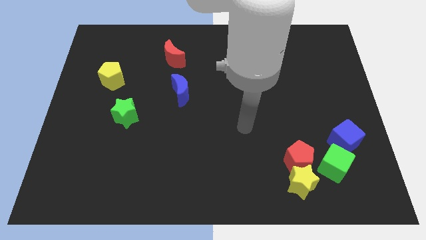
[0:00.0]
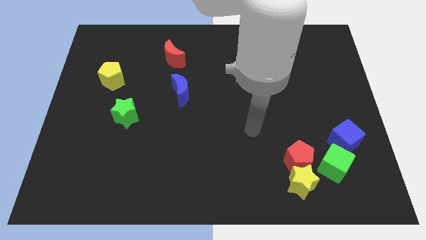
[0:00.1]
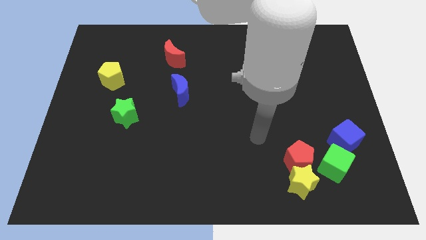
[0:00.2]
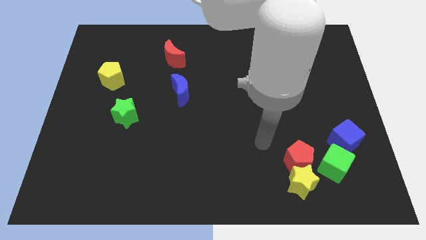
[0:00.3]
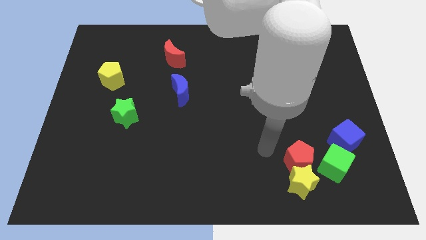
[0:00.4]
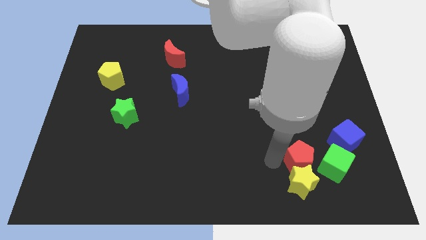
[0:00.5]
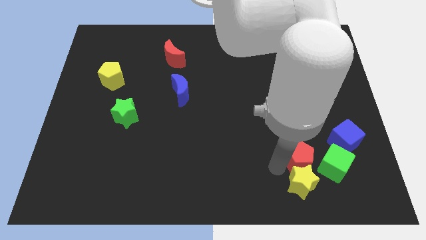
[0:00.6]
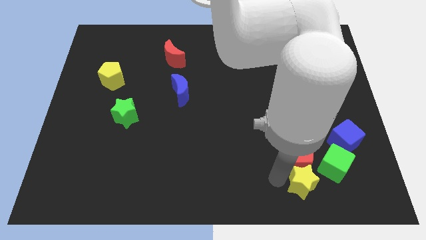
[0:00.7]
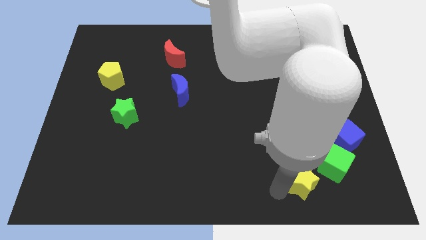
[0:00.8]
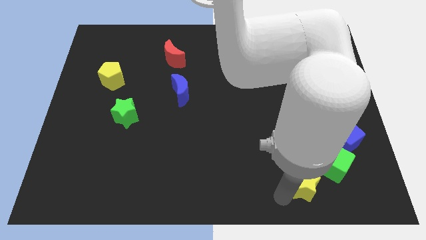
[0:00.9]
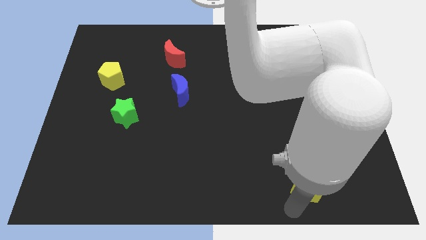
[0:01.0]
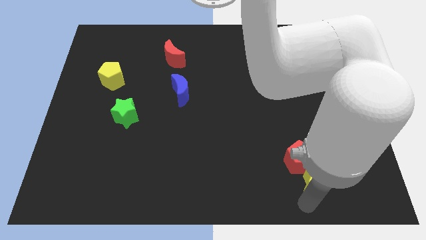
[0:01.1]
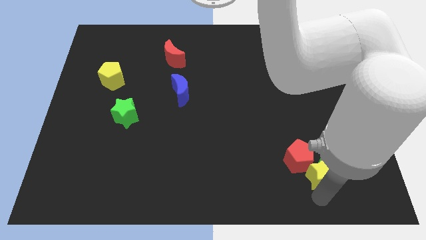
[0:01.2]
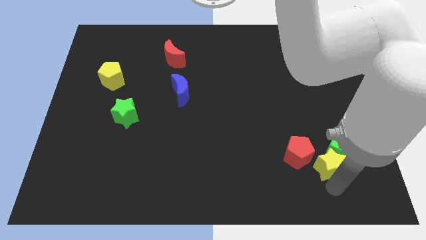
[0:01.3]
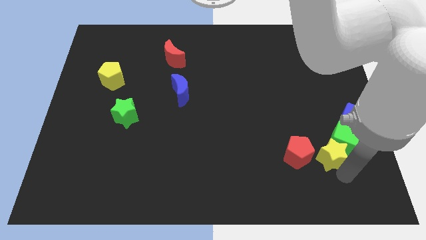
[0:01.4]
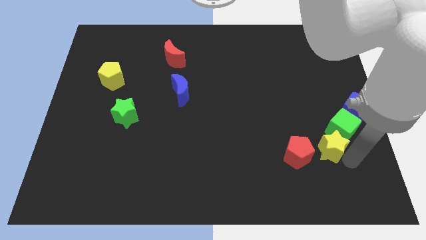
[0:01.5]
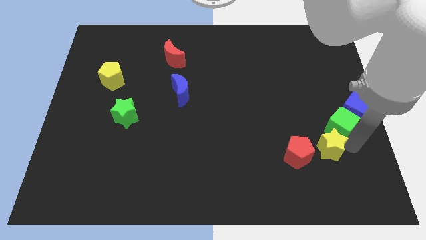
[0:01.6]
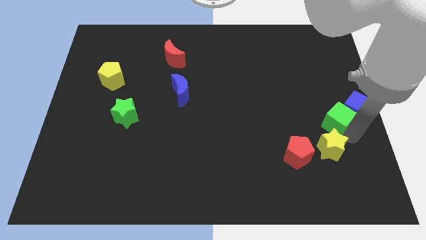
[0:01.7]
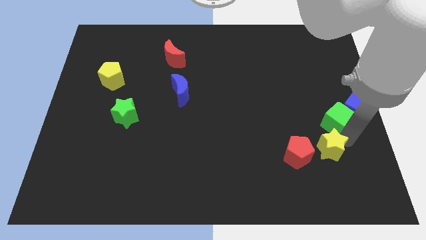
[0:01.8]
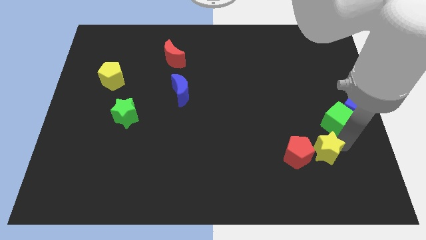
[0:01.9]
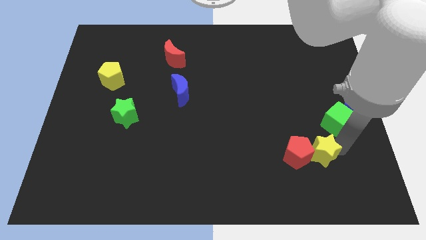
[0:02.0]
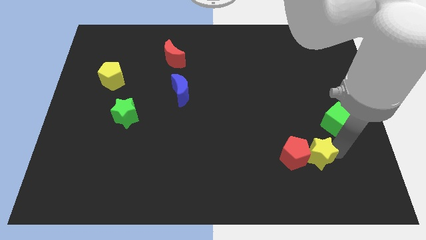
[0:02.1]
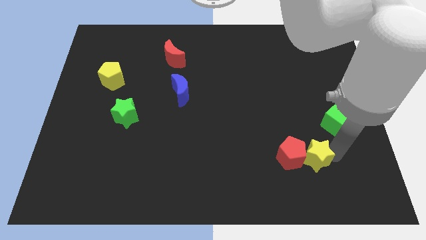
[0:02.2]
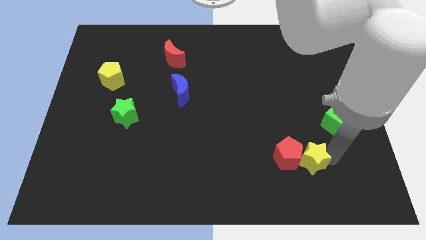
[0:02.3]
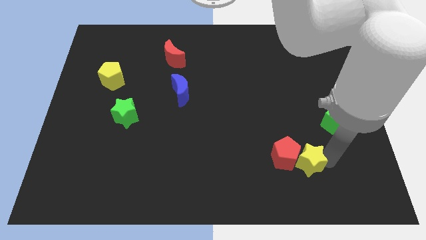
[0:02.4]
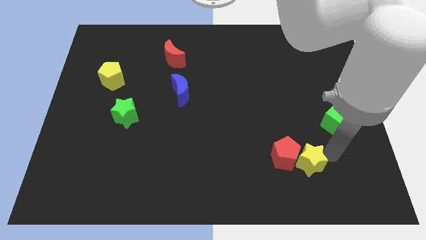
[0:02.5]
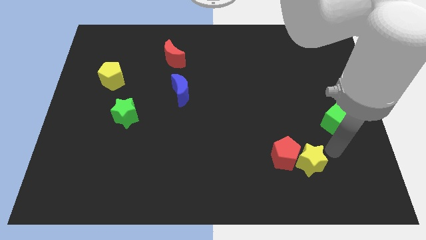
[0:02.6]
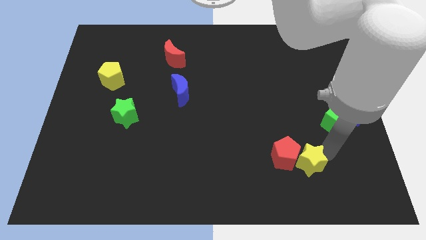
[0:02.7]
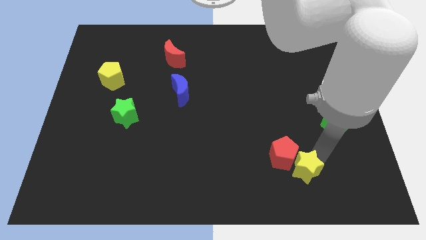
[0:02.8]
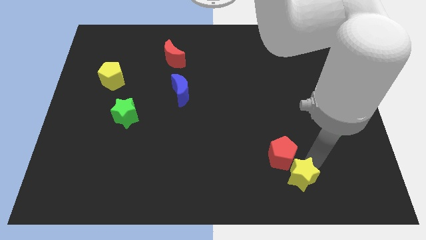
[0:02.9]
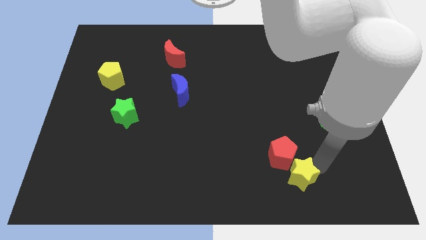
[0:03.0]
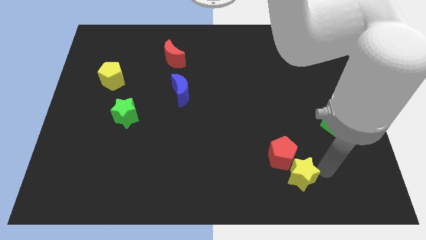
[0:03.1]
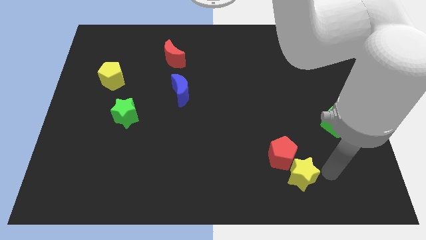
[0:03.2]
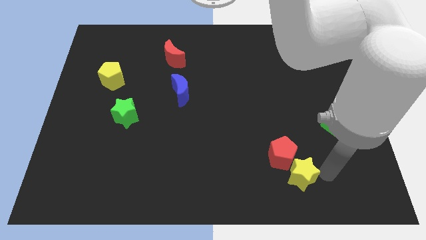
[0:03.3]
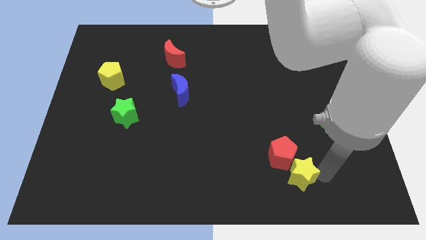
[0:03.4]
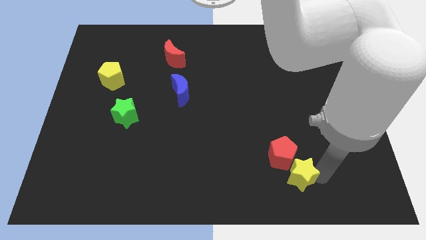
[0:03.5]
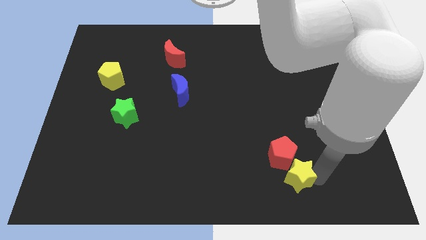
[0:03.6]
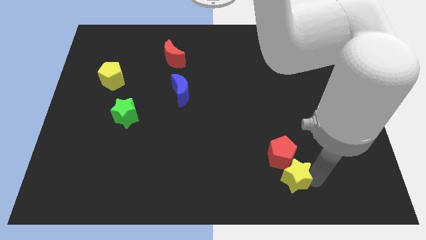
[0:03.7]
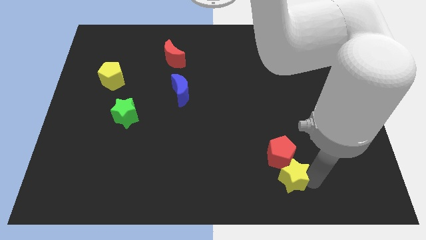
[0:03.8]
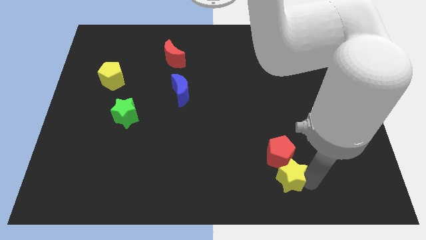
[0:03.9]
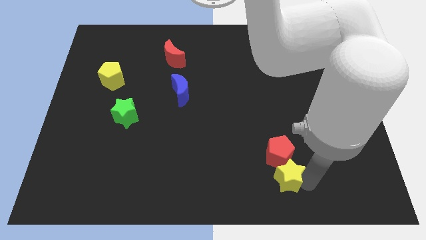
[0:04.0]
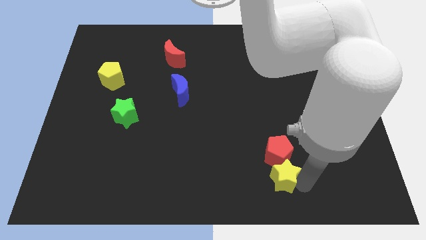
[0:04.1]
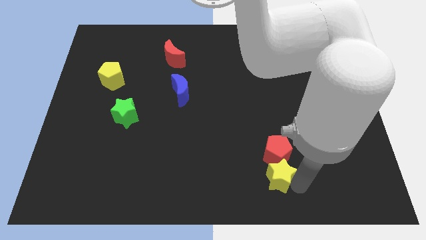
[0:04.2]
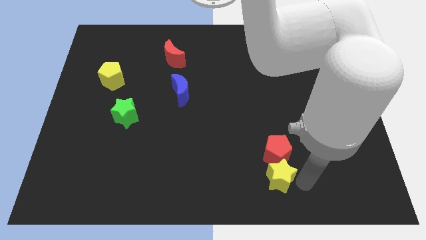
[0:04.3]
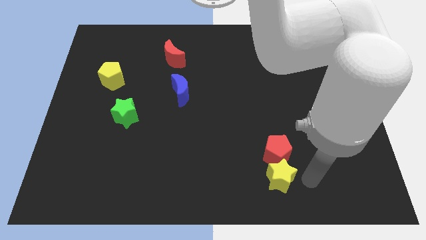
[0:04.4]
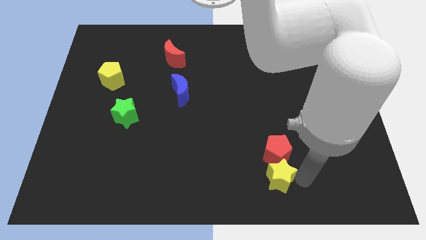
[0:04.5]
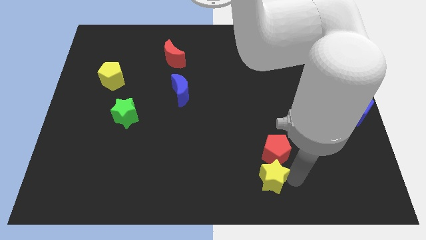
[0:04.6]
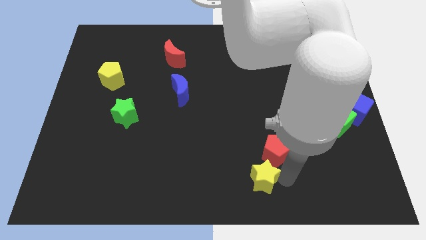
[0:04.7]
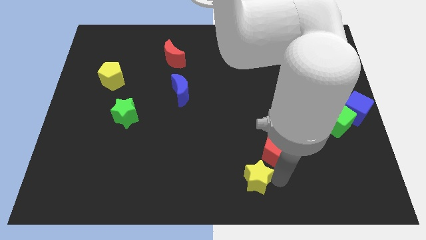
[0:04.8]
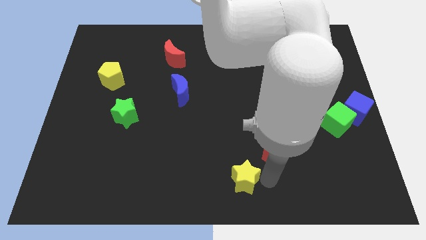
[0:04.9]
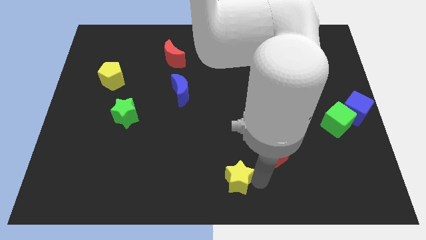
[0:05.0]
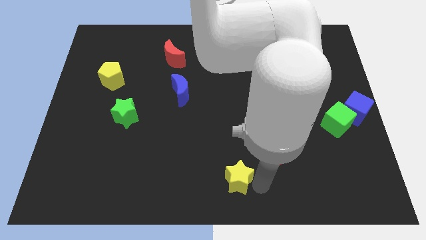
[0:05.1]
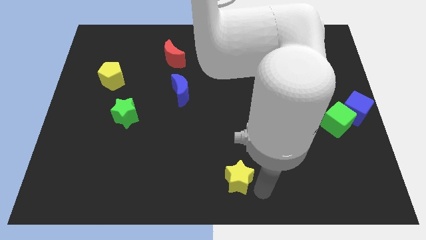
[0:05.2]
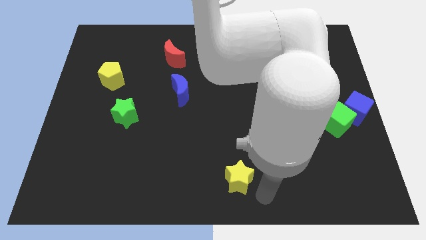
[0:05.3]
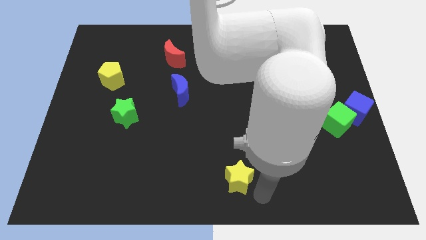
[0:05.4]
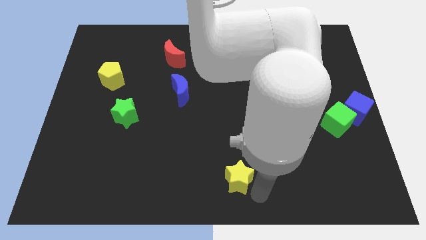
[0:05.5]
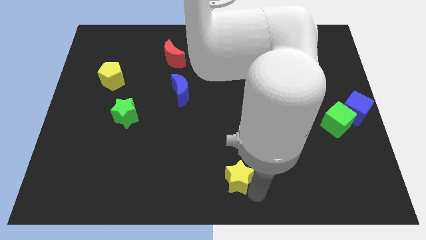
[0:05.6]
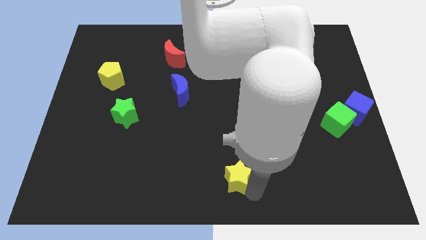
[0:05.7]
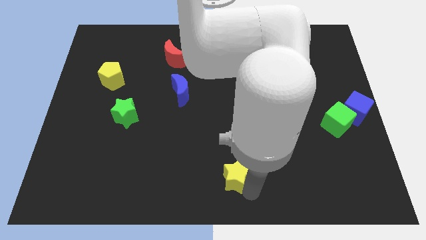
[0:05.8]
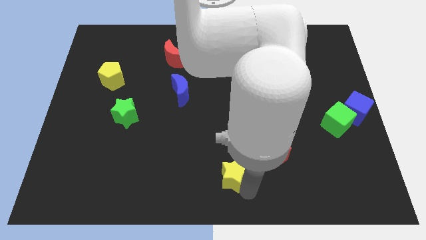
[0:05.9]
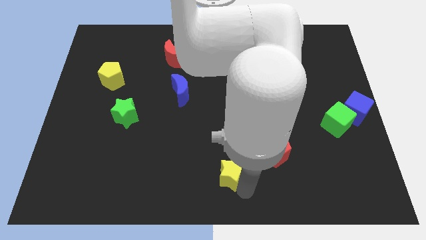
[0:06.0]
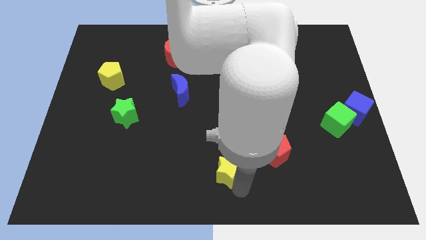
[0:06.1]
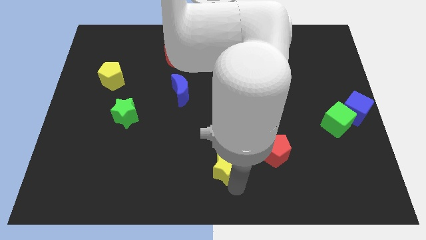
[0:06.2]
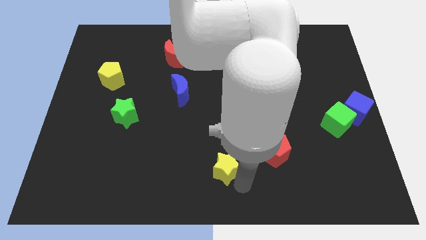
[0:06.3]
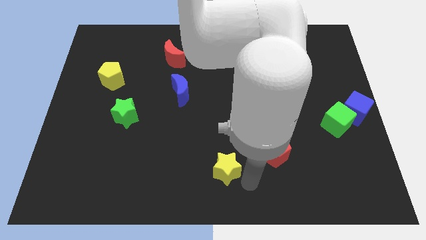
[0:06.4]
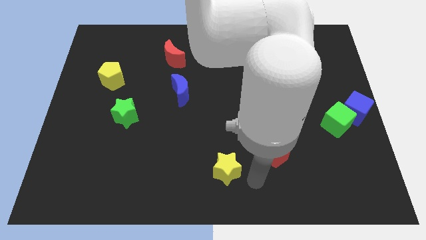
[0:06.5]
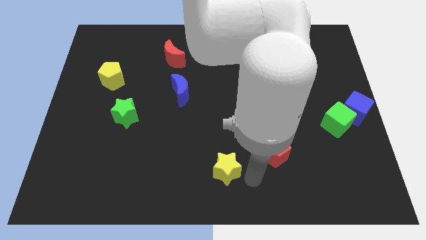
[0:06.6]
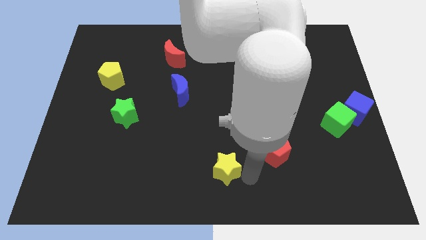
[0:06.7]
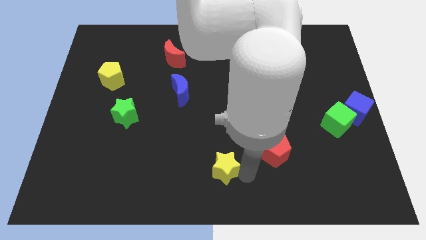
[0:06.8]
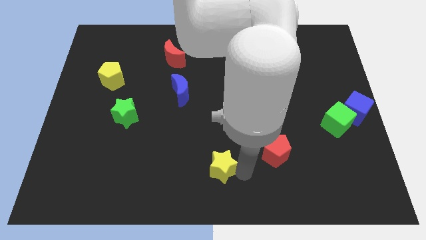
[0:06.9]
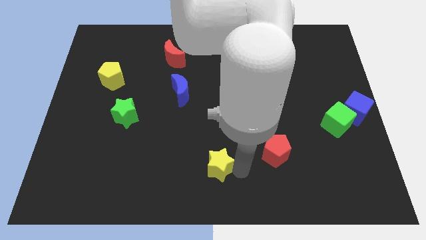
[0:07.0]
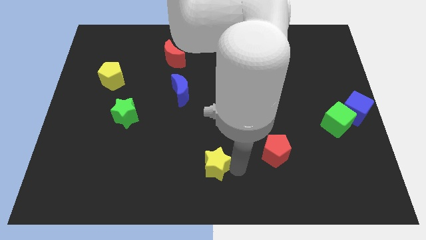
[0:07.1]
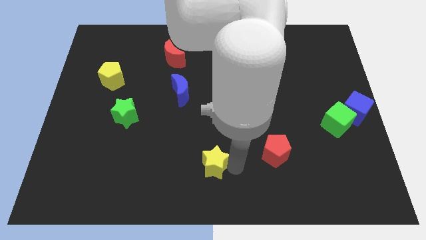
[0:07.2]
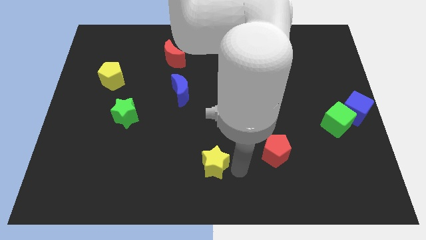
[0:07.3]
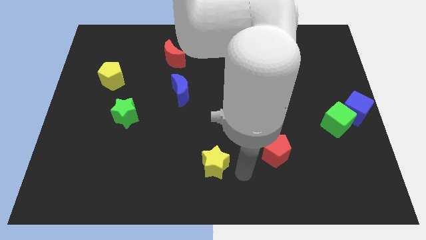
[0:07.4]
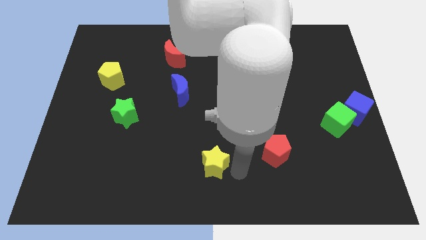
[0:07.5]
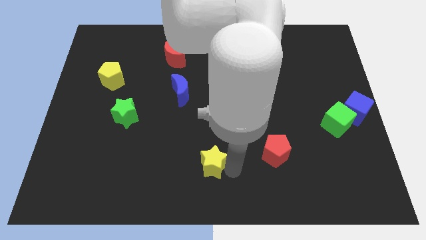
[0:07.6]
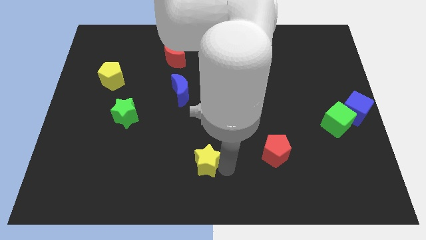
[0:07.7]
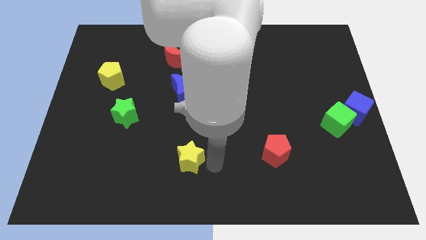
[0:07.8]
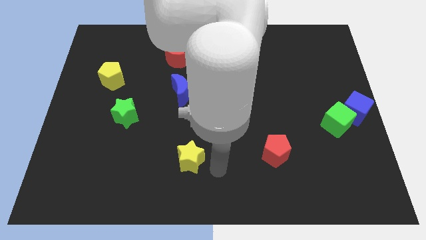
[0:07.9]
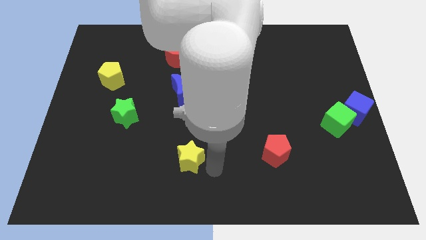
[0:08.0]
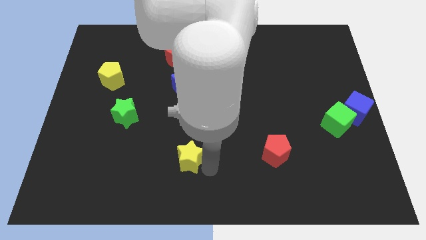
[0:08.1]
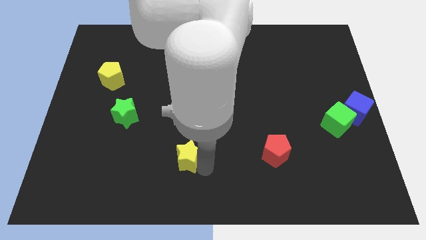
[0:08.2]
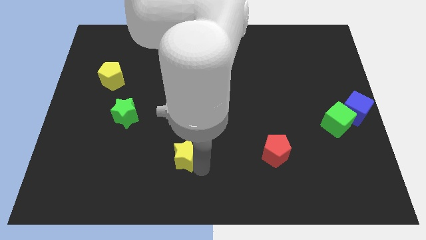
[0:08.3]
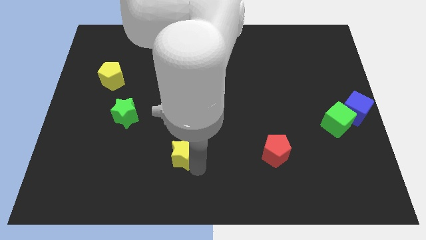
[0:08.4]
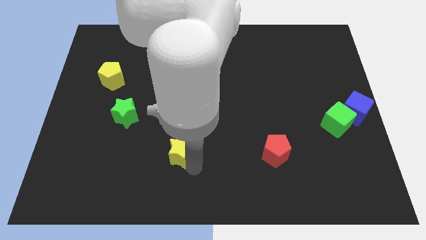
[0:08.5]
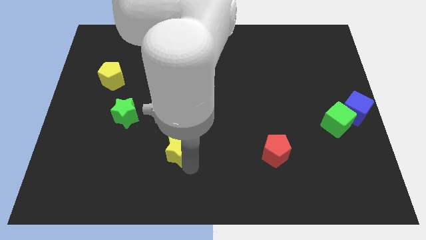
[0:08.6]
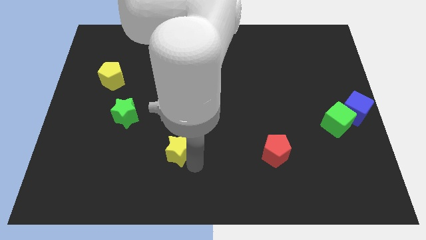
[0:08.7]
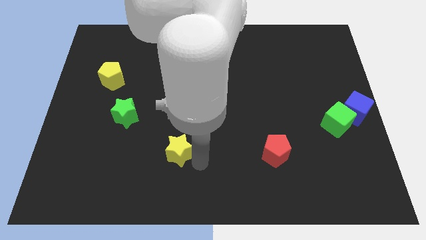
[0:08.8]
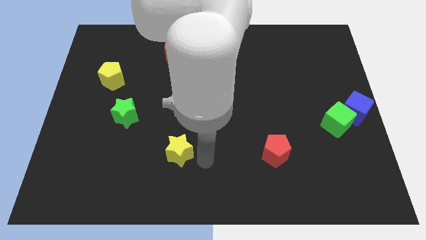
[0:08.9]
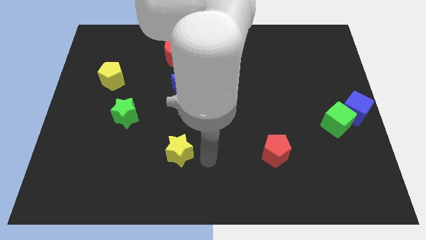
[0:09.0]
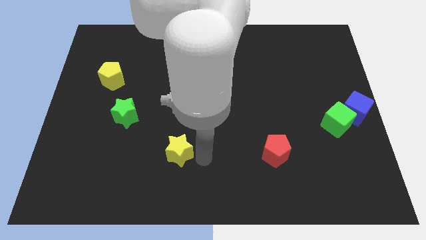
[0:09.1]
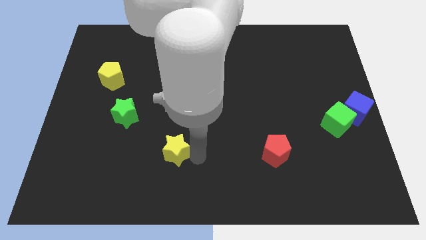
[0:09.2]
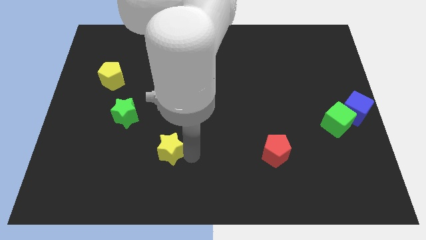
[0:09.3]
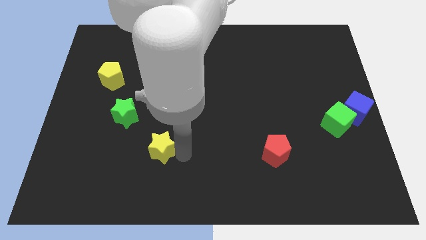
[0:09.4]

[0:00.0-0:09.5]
slide the yellow star diagonally down and to the right of the green star
